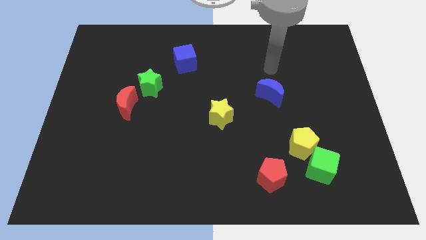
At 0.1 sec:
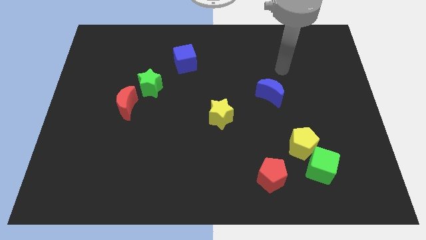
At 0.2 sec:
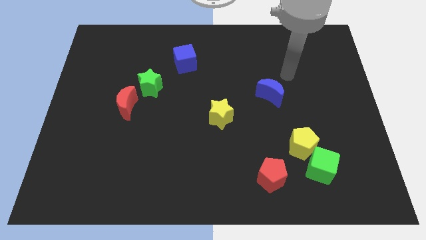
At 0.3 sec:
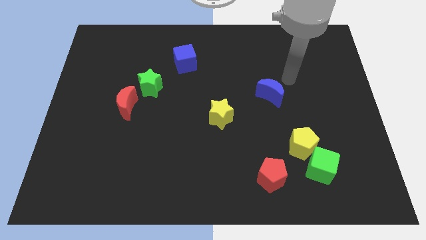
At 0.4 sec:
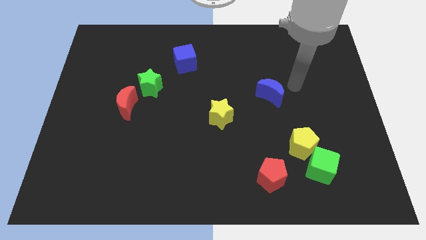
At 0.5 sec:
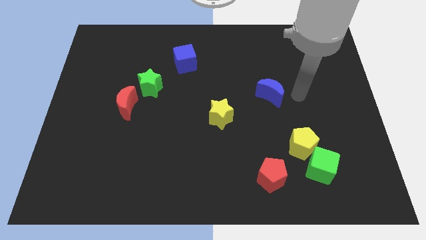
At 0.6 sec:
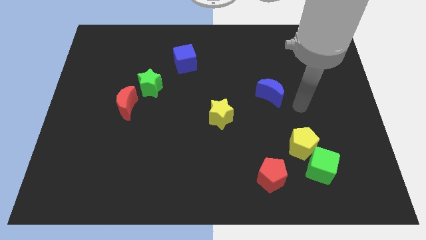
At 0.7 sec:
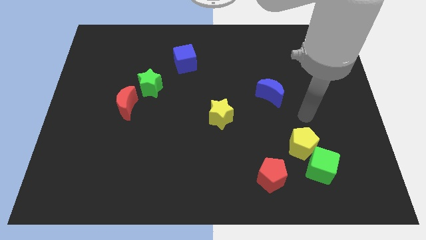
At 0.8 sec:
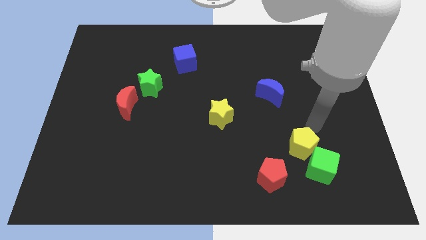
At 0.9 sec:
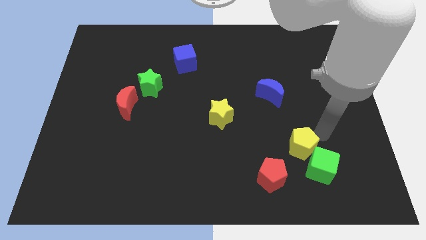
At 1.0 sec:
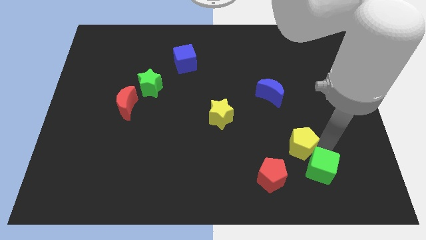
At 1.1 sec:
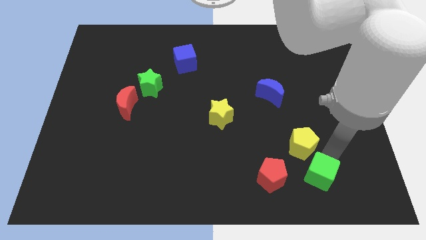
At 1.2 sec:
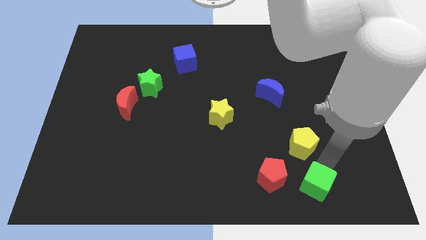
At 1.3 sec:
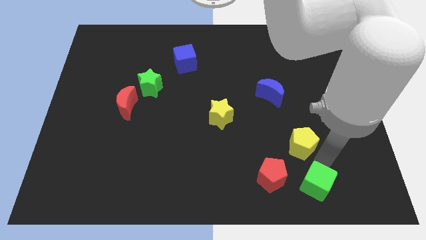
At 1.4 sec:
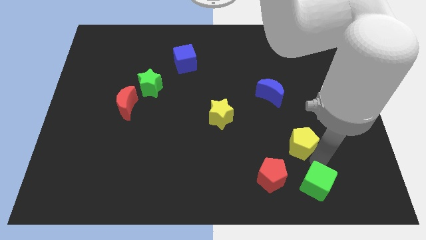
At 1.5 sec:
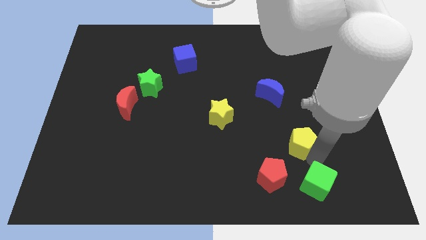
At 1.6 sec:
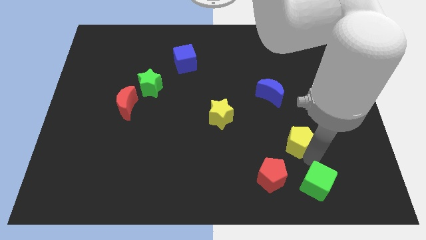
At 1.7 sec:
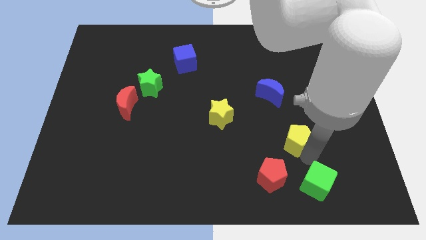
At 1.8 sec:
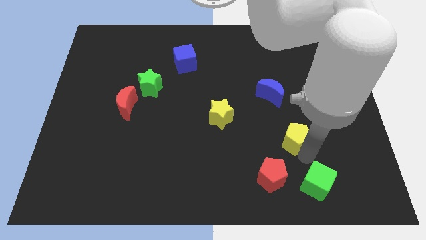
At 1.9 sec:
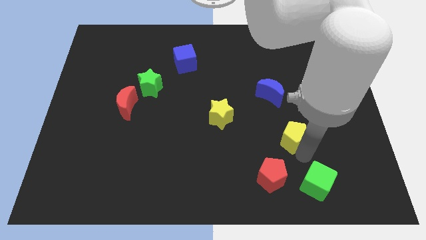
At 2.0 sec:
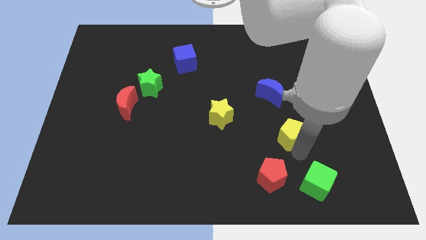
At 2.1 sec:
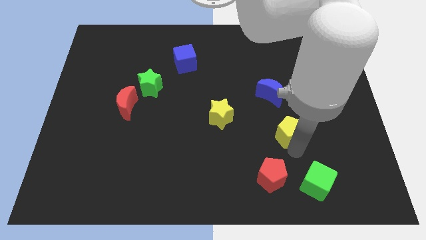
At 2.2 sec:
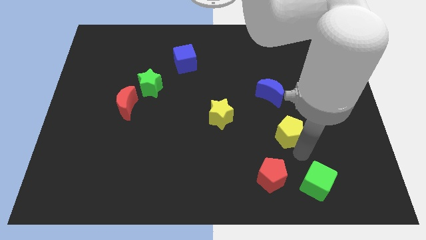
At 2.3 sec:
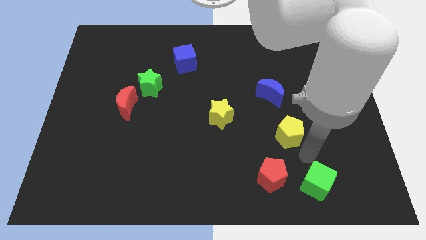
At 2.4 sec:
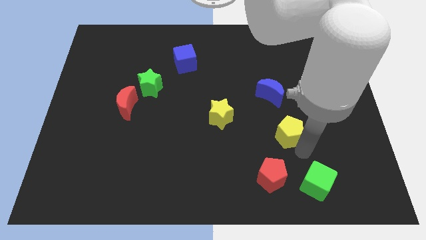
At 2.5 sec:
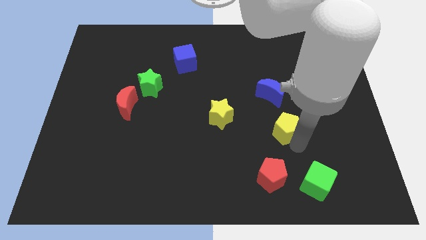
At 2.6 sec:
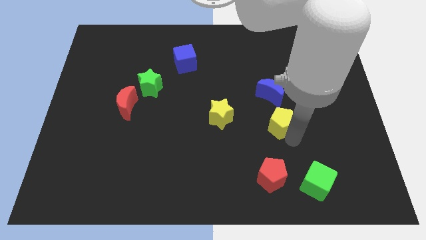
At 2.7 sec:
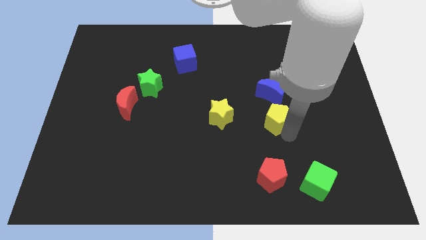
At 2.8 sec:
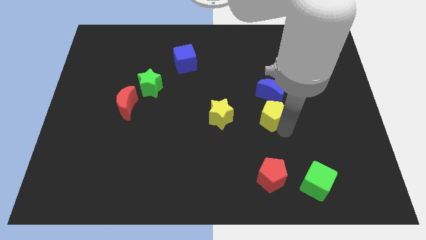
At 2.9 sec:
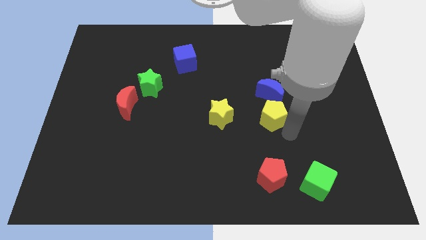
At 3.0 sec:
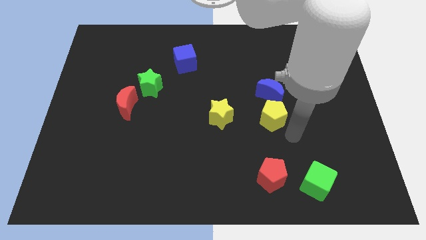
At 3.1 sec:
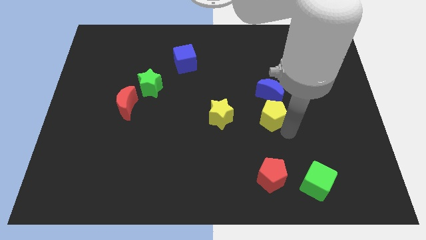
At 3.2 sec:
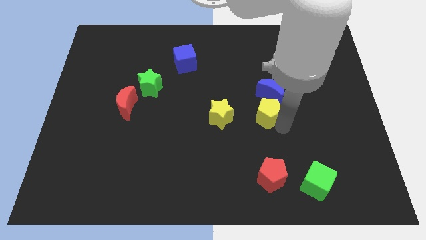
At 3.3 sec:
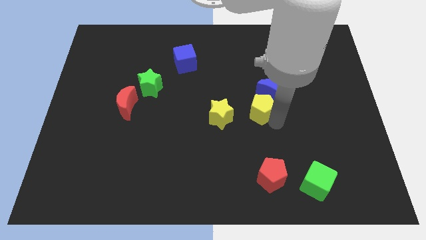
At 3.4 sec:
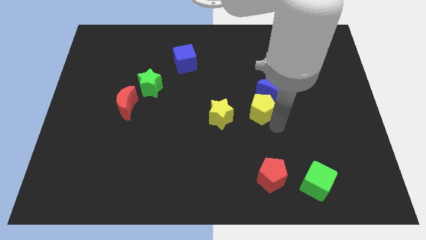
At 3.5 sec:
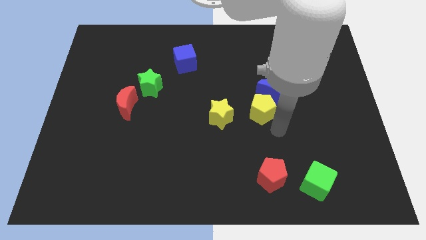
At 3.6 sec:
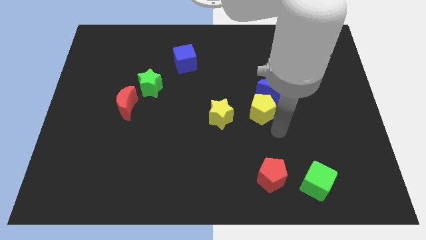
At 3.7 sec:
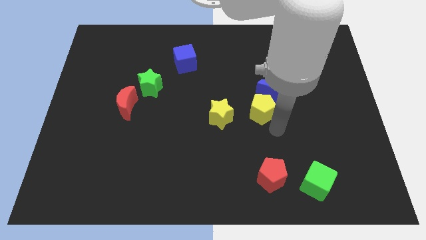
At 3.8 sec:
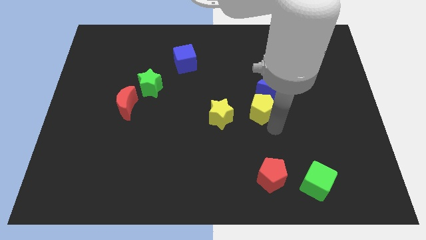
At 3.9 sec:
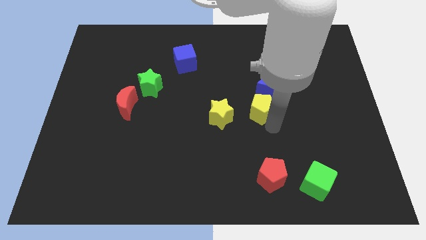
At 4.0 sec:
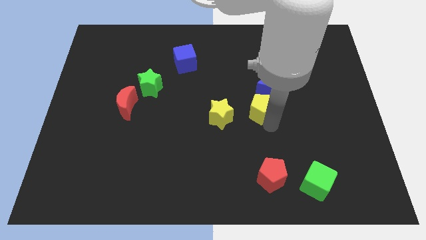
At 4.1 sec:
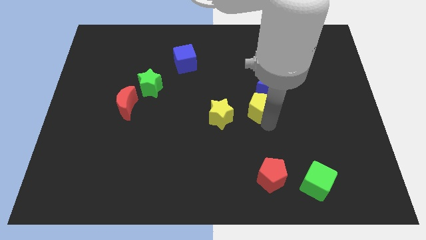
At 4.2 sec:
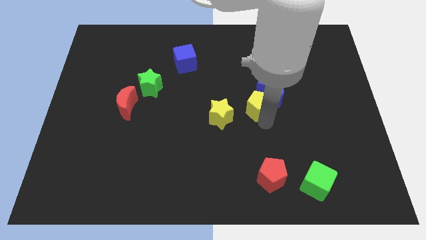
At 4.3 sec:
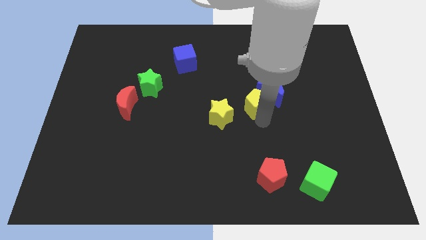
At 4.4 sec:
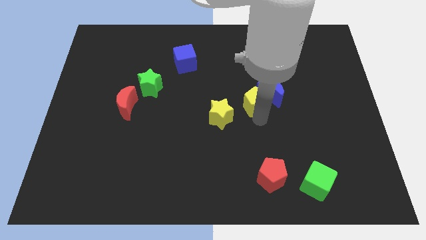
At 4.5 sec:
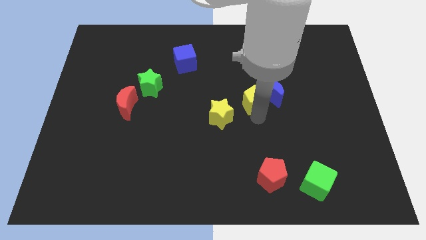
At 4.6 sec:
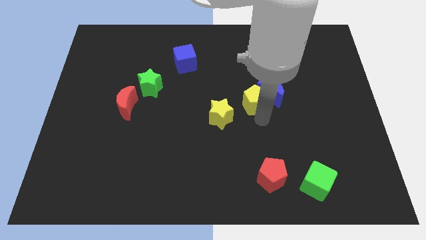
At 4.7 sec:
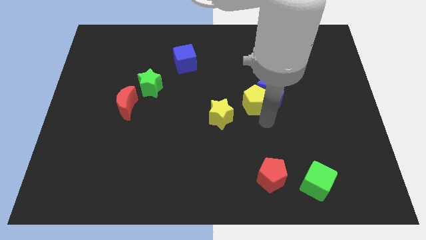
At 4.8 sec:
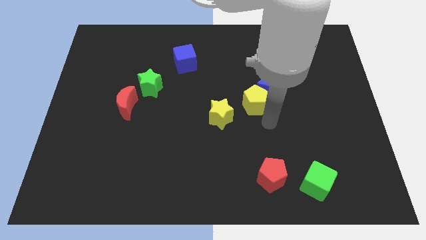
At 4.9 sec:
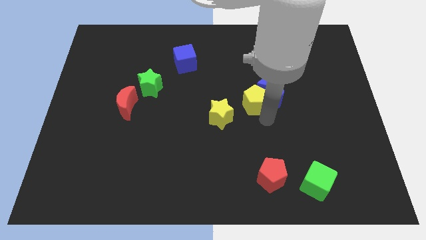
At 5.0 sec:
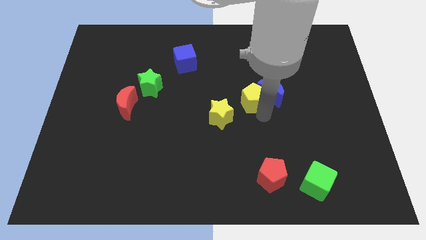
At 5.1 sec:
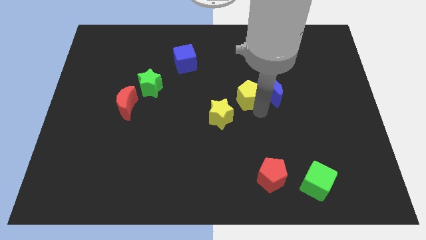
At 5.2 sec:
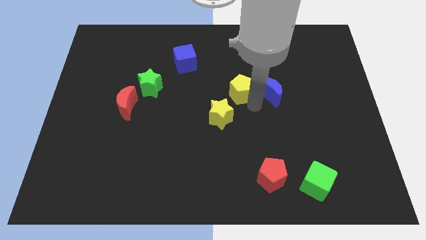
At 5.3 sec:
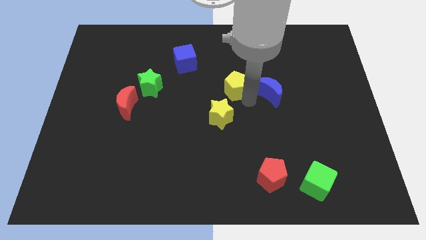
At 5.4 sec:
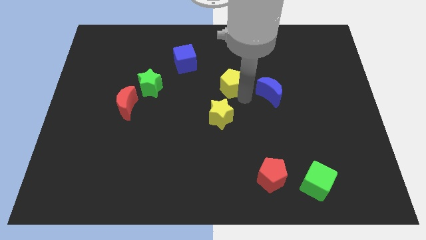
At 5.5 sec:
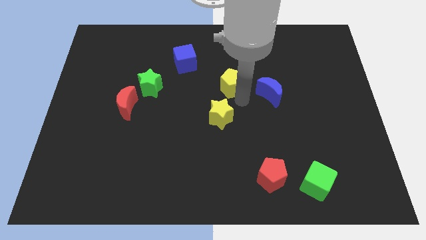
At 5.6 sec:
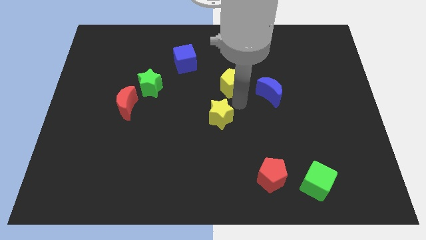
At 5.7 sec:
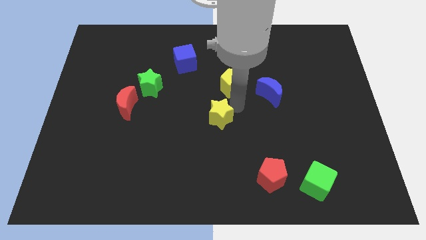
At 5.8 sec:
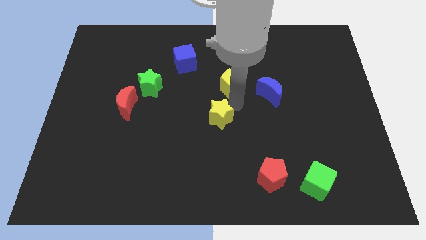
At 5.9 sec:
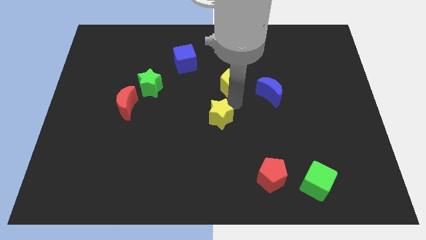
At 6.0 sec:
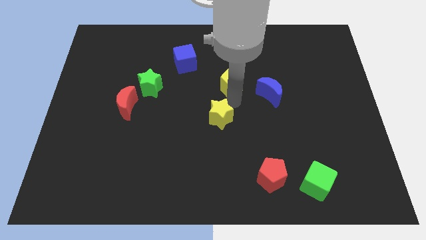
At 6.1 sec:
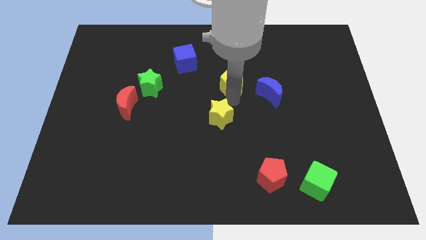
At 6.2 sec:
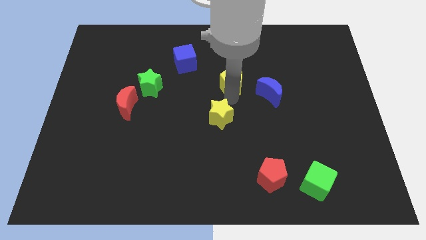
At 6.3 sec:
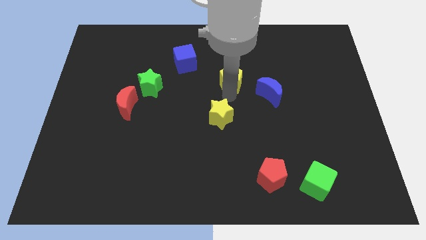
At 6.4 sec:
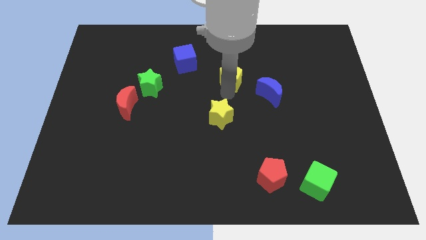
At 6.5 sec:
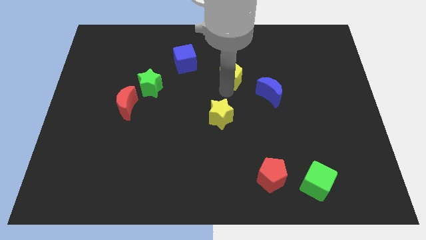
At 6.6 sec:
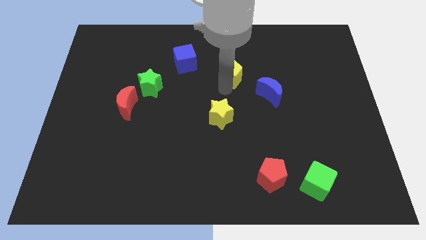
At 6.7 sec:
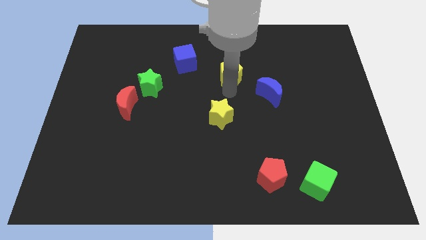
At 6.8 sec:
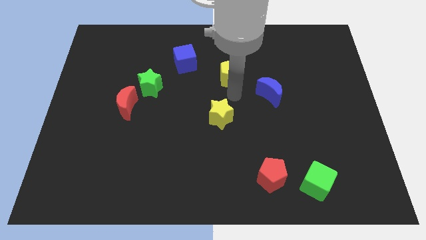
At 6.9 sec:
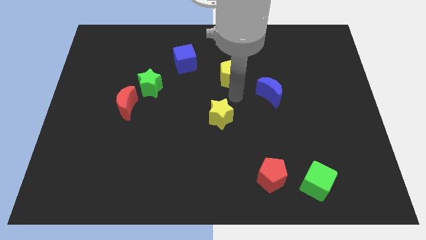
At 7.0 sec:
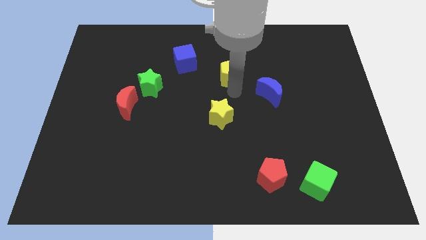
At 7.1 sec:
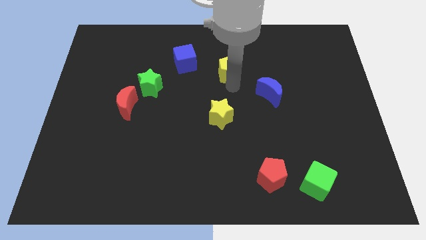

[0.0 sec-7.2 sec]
move the yellow pentagon to the right of the blue cube
